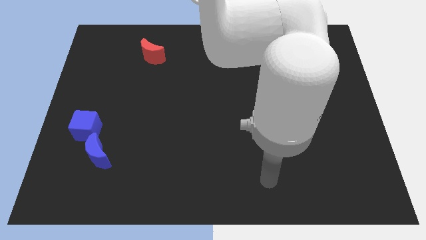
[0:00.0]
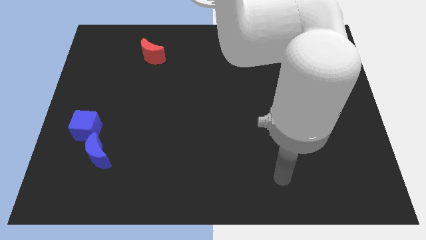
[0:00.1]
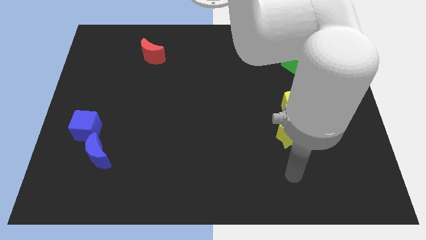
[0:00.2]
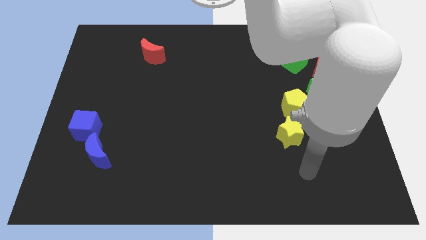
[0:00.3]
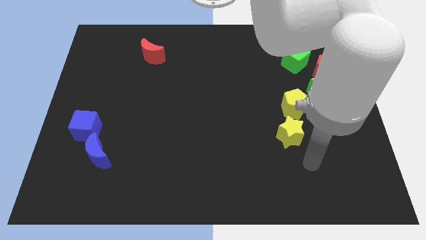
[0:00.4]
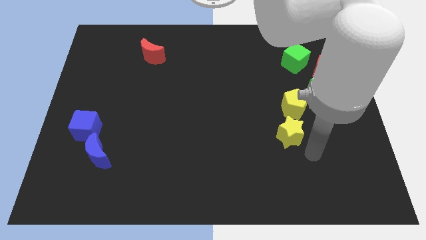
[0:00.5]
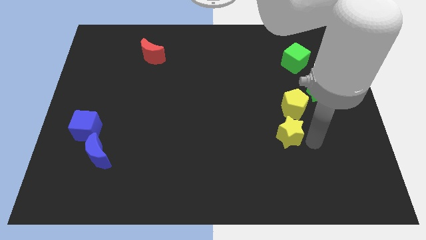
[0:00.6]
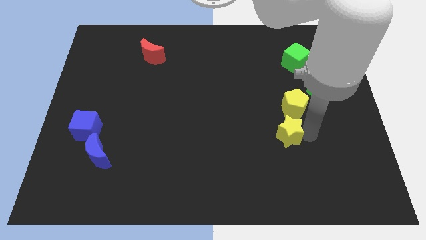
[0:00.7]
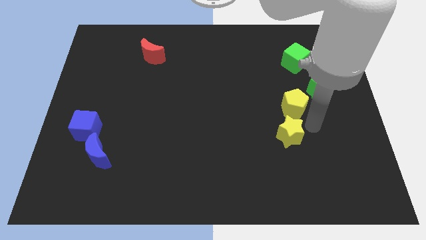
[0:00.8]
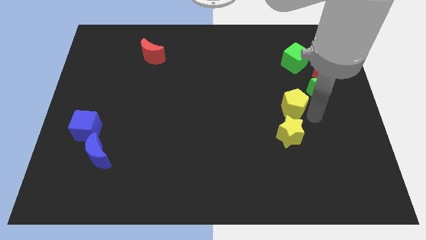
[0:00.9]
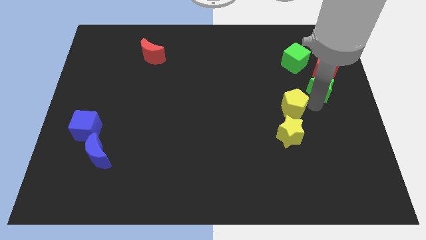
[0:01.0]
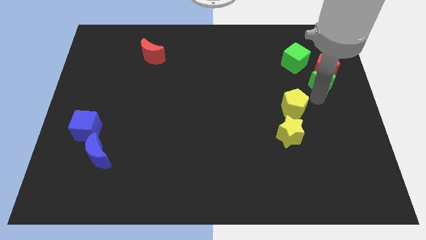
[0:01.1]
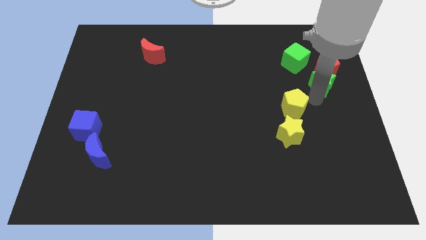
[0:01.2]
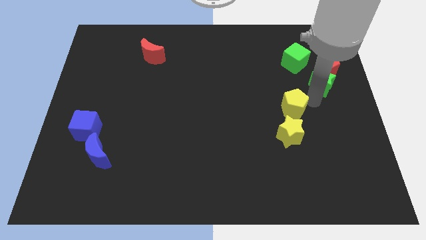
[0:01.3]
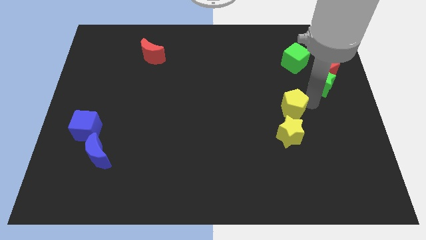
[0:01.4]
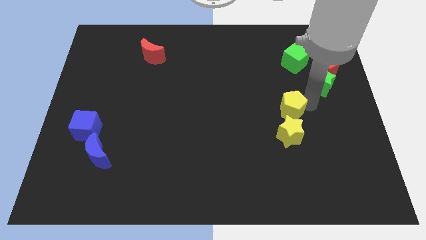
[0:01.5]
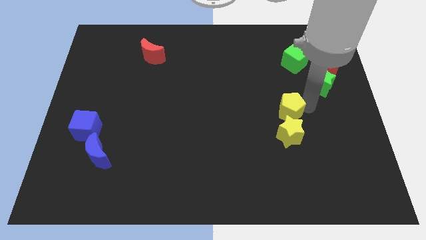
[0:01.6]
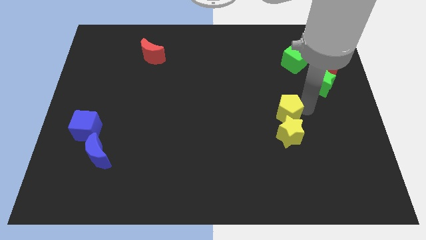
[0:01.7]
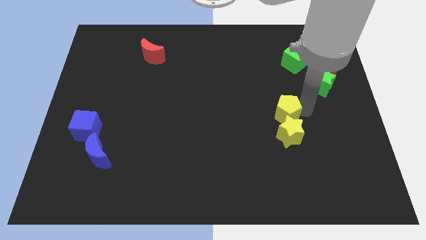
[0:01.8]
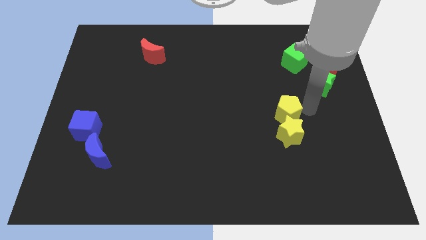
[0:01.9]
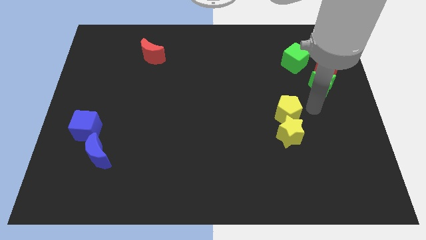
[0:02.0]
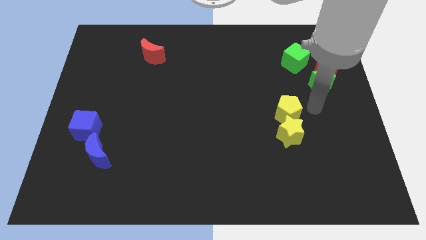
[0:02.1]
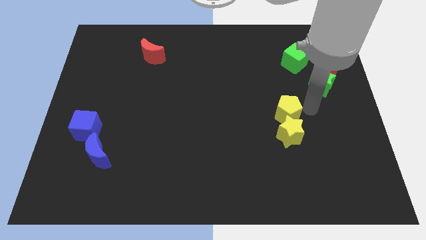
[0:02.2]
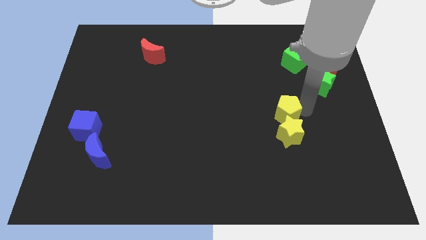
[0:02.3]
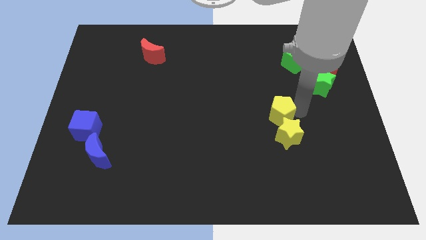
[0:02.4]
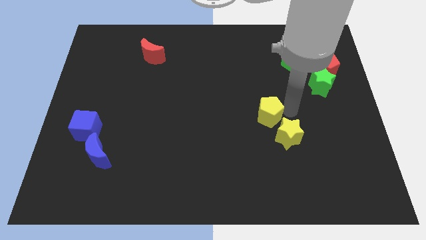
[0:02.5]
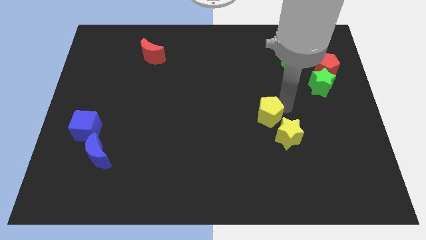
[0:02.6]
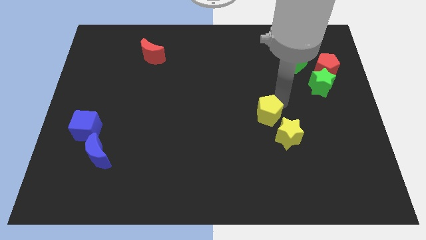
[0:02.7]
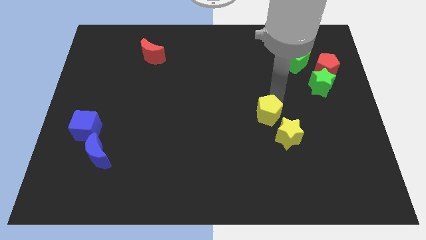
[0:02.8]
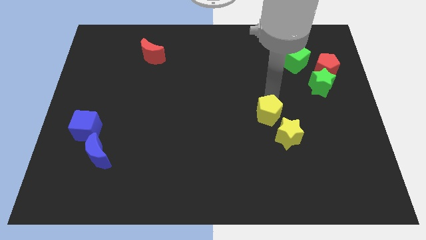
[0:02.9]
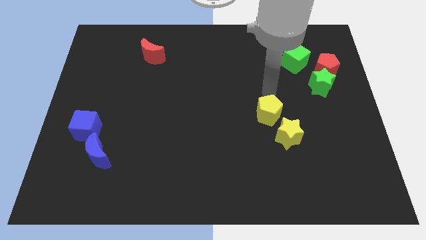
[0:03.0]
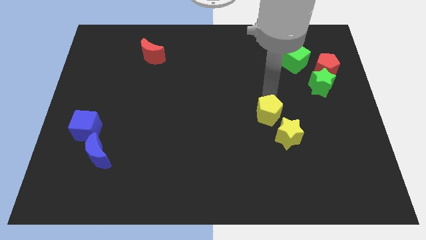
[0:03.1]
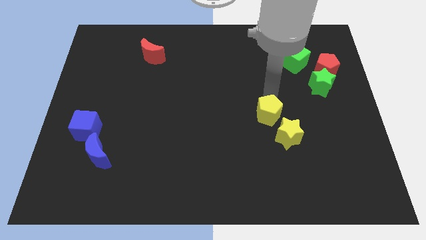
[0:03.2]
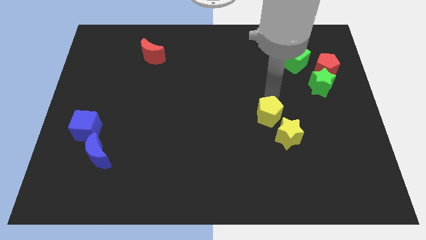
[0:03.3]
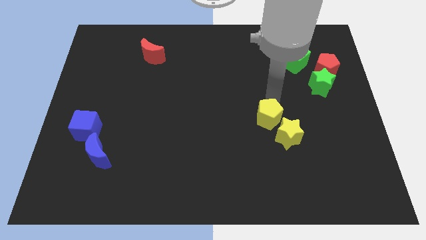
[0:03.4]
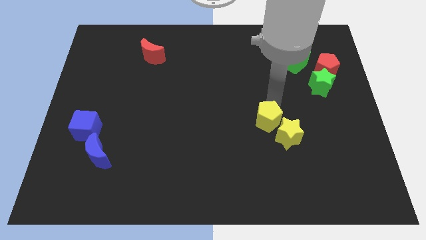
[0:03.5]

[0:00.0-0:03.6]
push the yellow pentagon downwards and then left somewhat

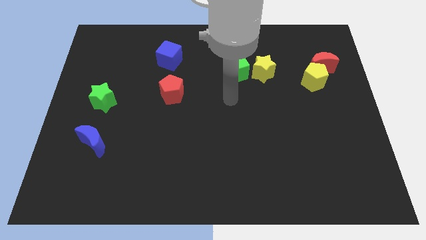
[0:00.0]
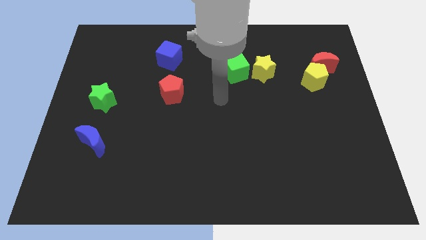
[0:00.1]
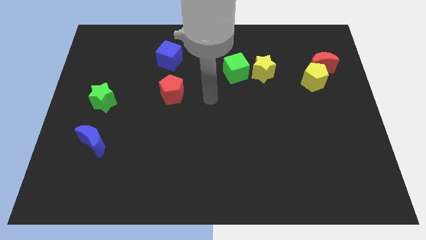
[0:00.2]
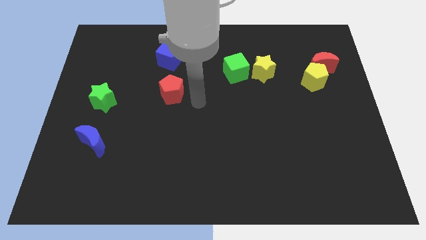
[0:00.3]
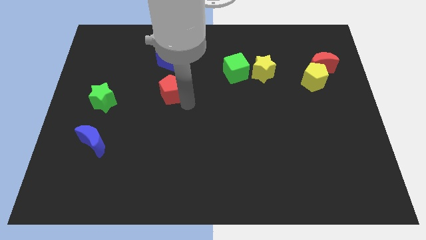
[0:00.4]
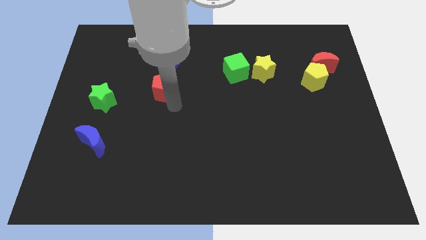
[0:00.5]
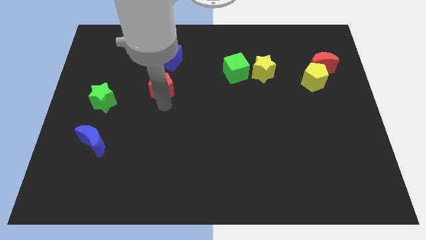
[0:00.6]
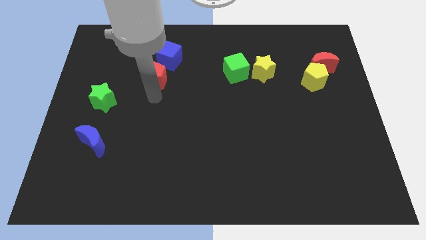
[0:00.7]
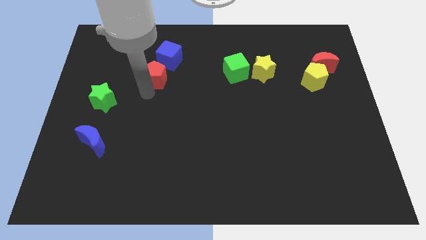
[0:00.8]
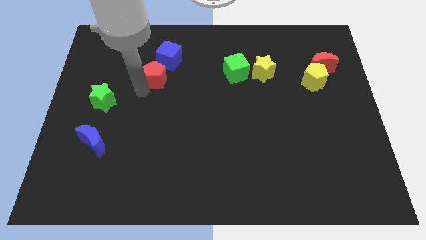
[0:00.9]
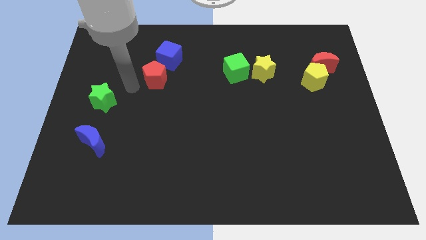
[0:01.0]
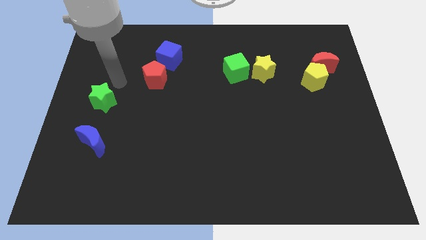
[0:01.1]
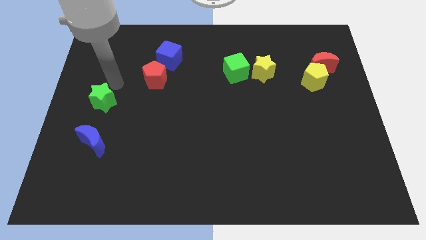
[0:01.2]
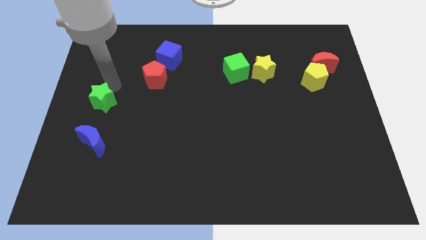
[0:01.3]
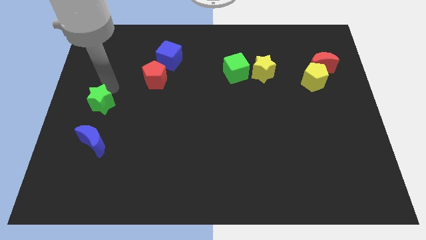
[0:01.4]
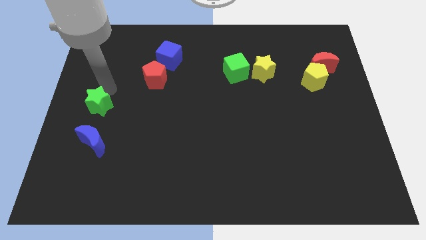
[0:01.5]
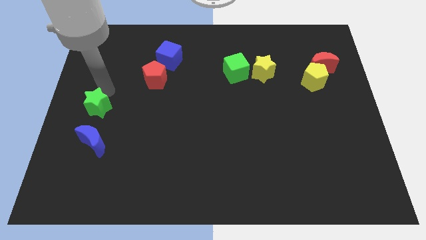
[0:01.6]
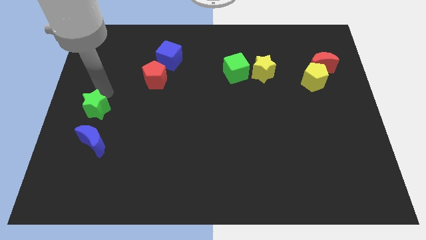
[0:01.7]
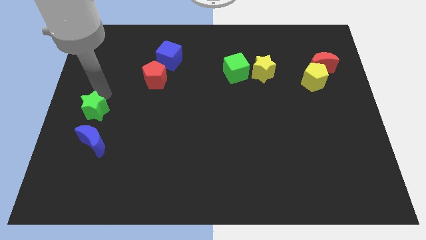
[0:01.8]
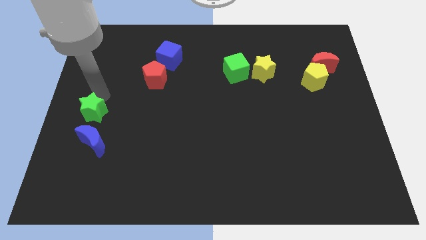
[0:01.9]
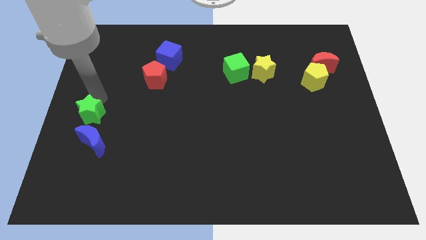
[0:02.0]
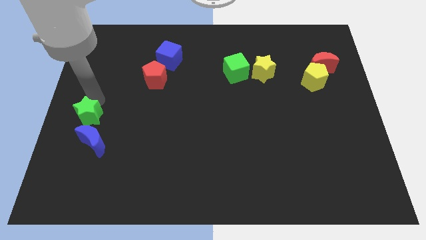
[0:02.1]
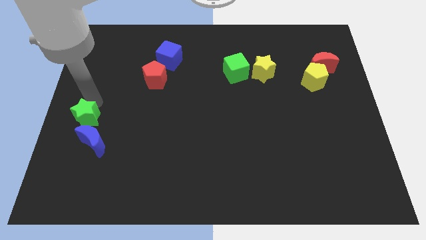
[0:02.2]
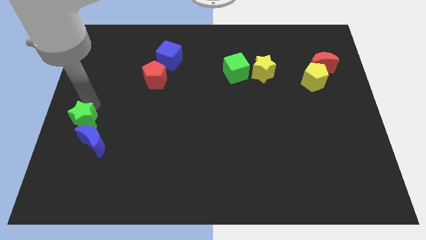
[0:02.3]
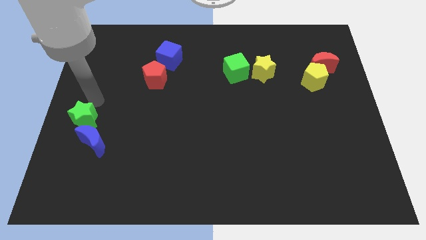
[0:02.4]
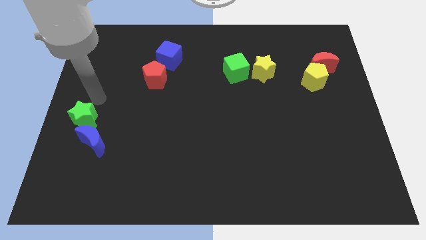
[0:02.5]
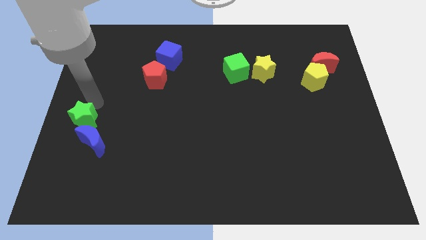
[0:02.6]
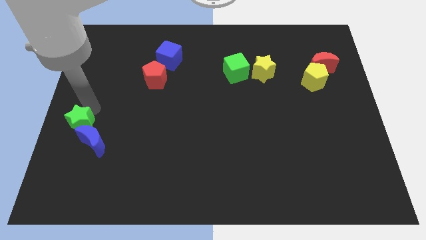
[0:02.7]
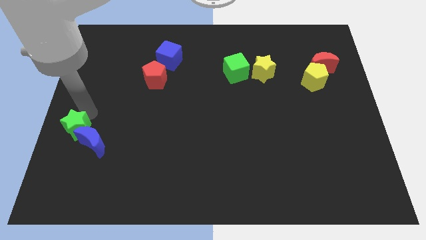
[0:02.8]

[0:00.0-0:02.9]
slide the green star down a little bit

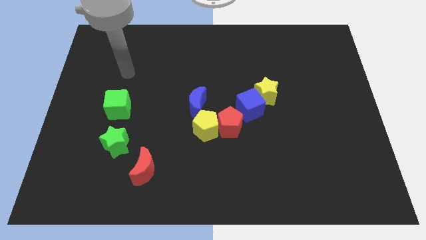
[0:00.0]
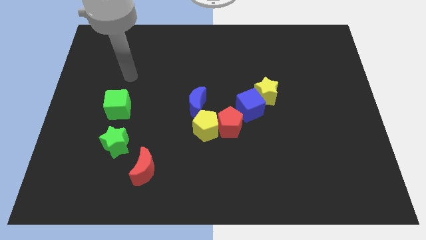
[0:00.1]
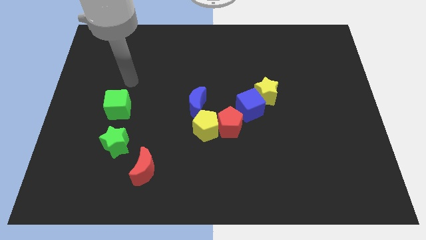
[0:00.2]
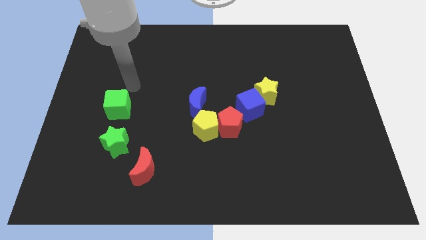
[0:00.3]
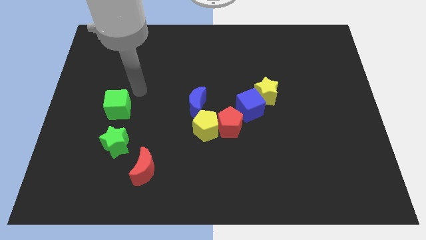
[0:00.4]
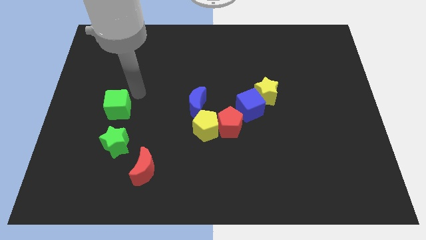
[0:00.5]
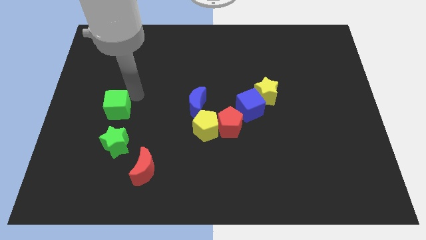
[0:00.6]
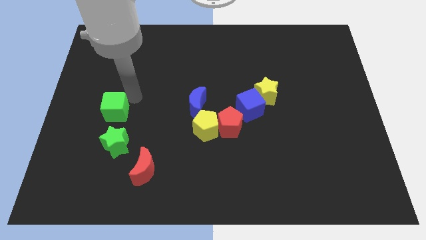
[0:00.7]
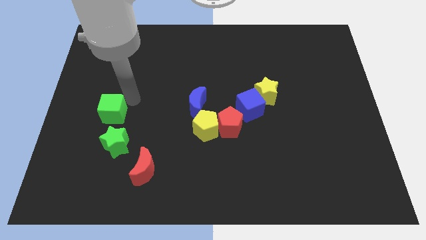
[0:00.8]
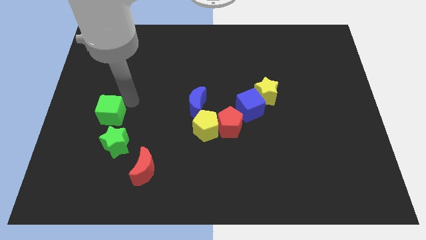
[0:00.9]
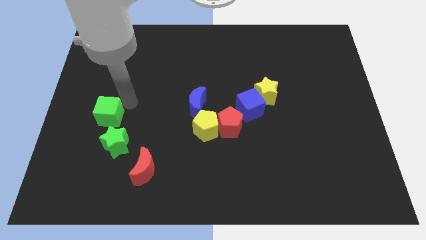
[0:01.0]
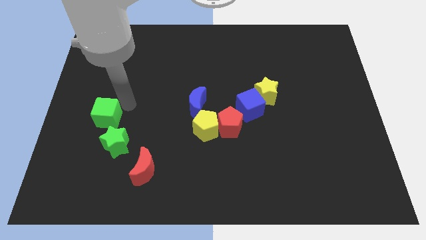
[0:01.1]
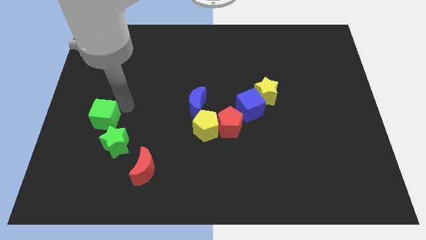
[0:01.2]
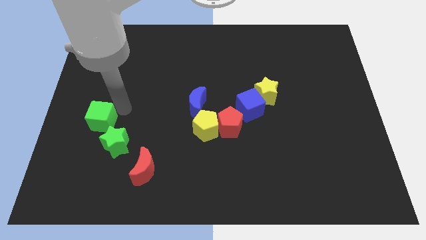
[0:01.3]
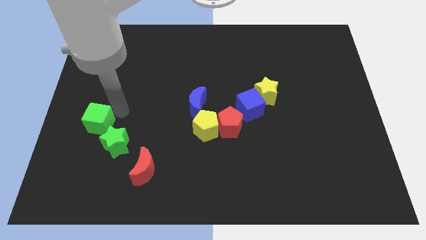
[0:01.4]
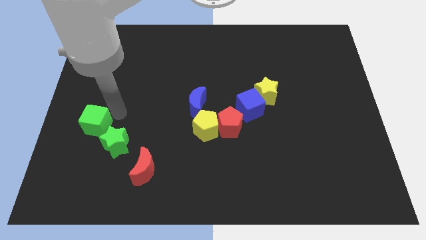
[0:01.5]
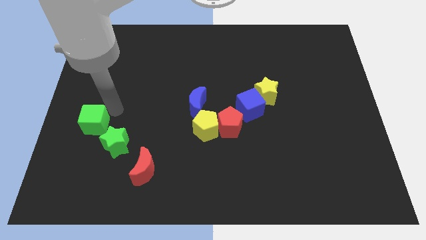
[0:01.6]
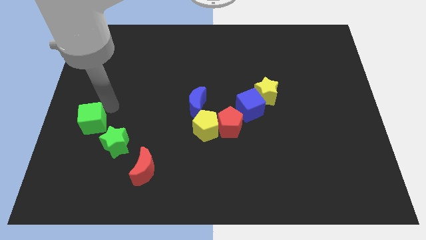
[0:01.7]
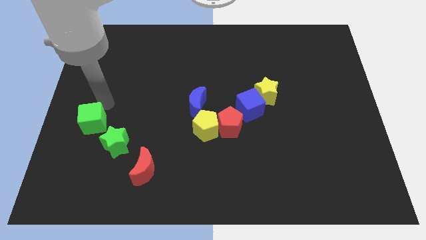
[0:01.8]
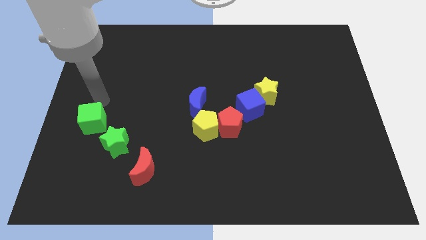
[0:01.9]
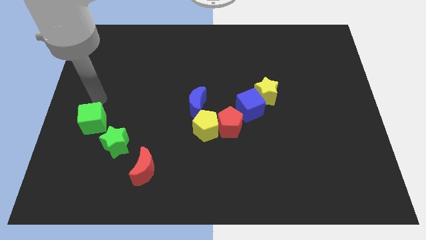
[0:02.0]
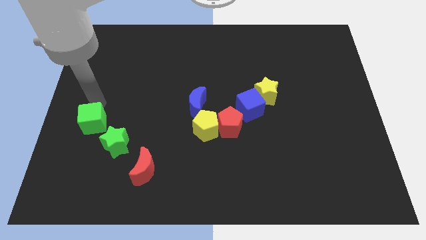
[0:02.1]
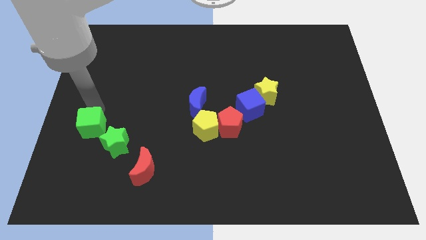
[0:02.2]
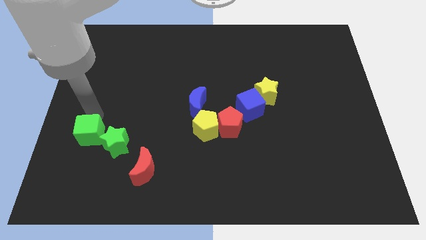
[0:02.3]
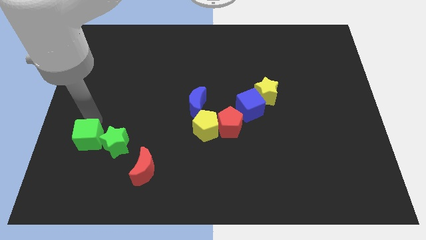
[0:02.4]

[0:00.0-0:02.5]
slightly move the green cube down
